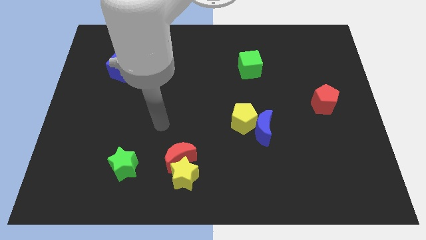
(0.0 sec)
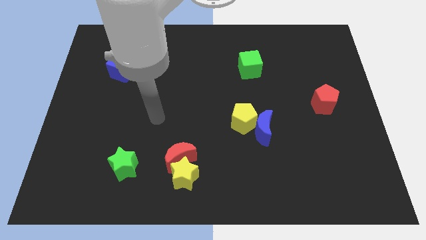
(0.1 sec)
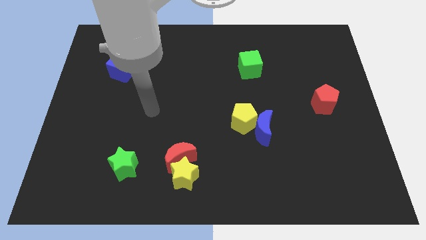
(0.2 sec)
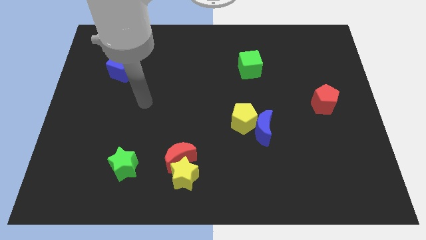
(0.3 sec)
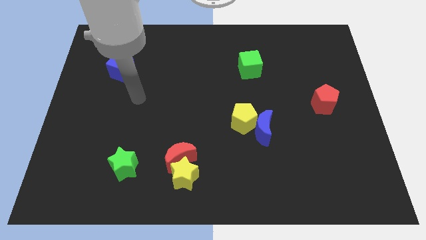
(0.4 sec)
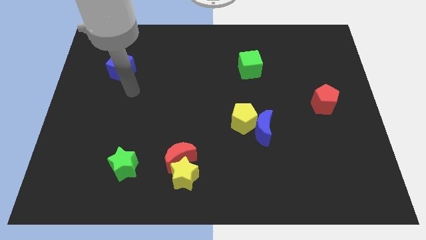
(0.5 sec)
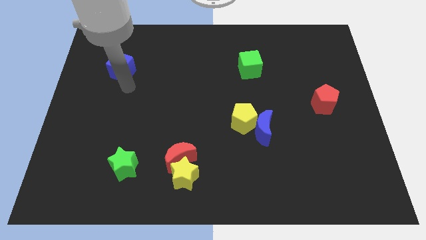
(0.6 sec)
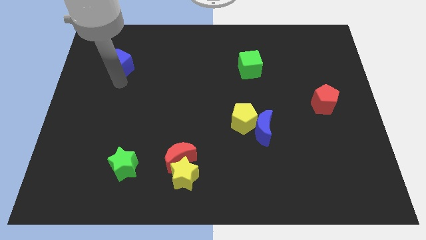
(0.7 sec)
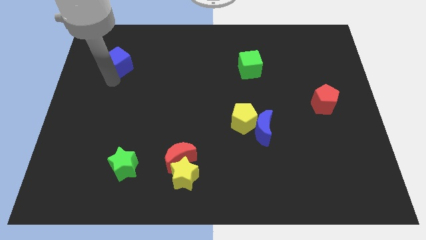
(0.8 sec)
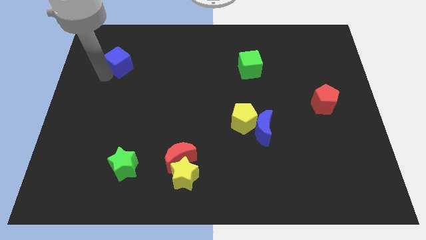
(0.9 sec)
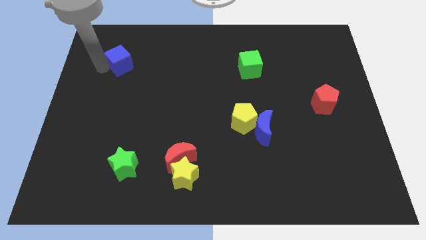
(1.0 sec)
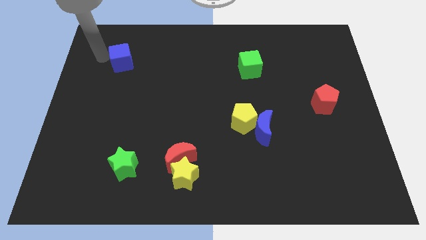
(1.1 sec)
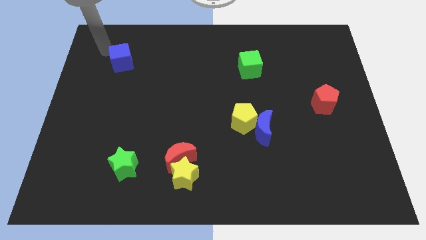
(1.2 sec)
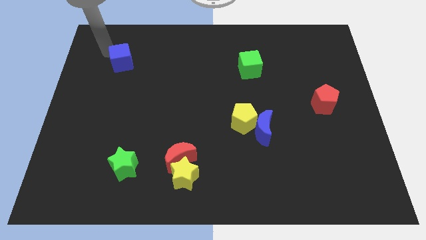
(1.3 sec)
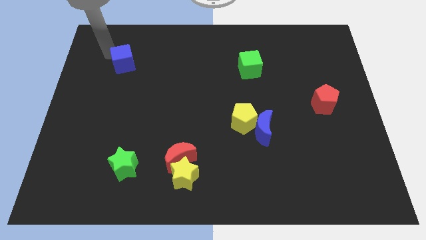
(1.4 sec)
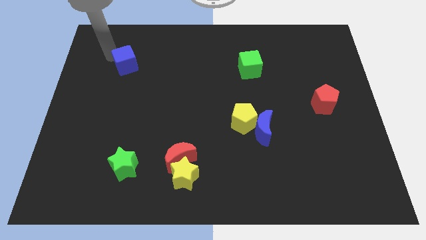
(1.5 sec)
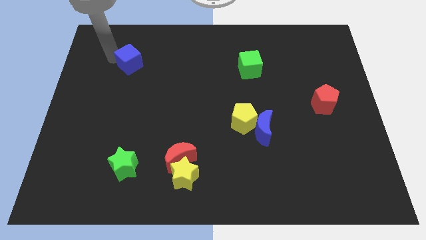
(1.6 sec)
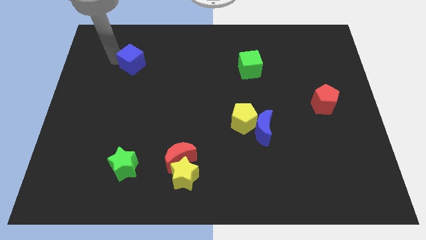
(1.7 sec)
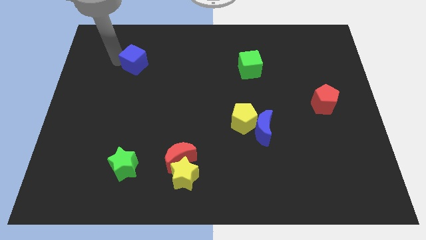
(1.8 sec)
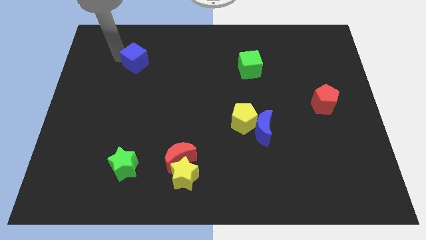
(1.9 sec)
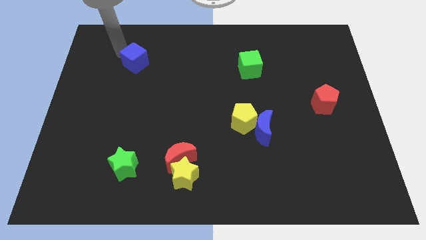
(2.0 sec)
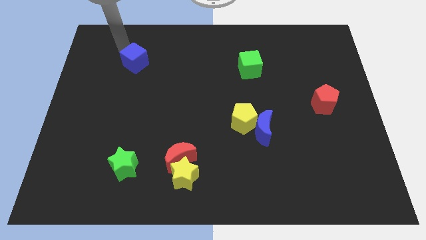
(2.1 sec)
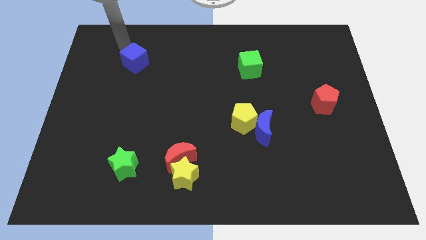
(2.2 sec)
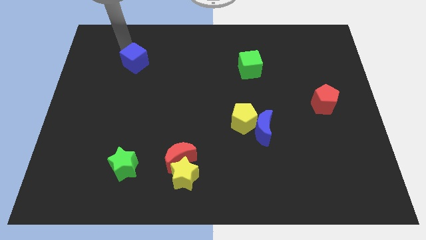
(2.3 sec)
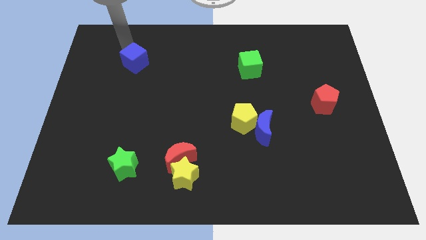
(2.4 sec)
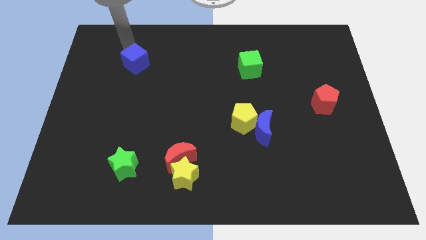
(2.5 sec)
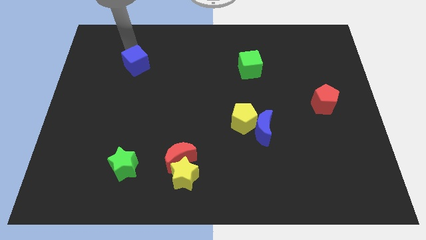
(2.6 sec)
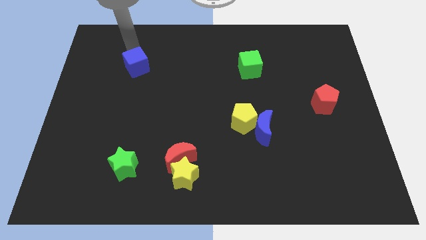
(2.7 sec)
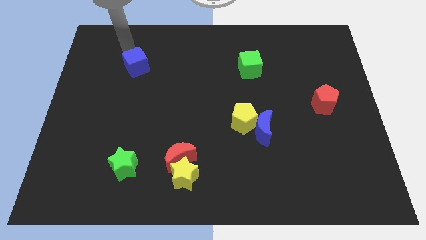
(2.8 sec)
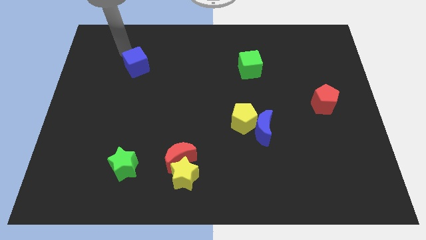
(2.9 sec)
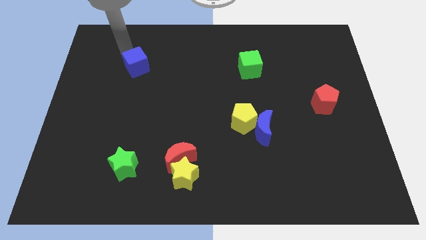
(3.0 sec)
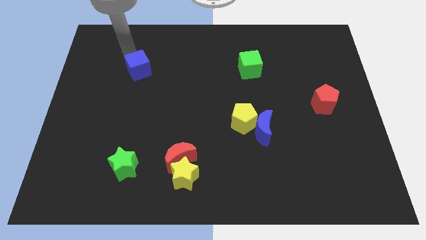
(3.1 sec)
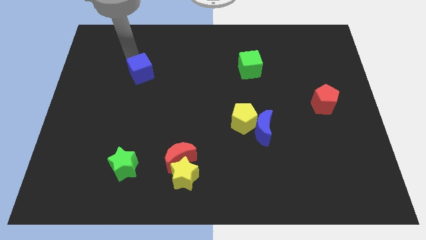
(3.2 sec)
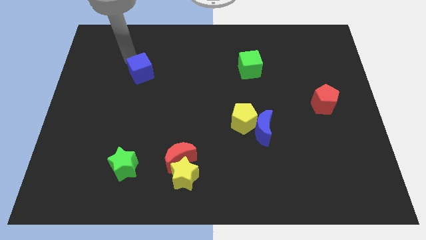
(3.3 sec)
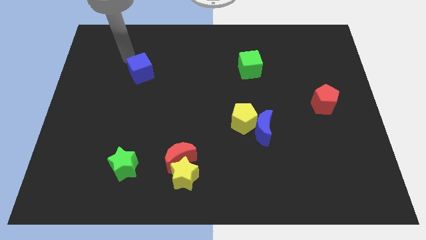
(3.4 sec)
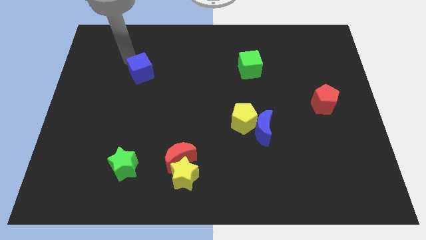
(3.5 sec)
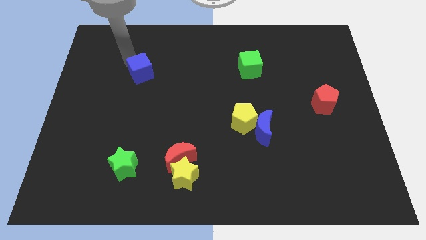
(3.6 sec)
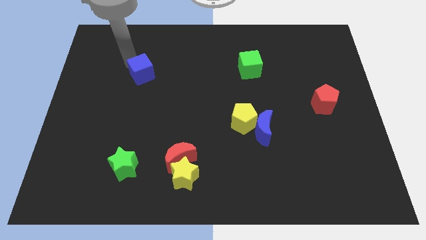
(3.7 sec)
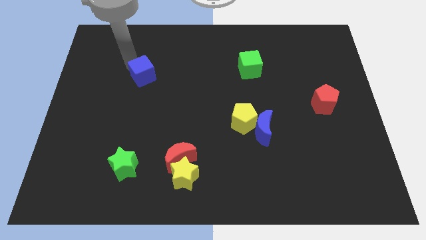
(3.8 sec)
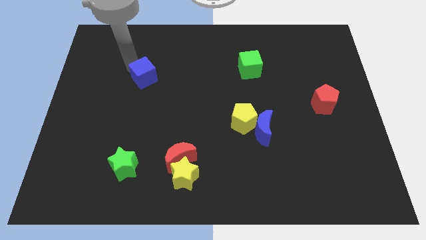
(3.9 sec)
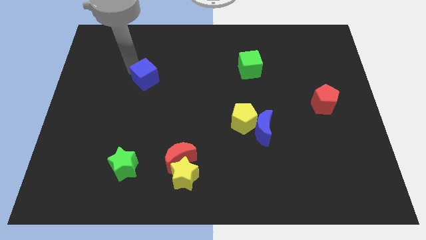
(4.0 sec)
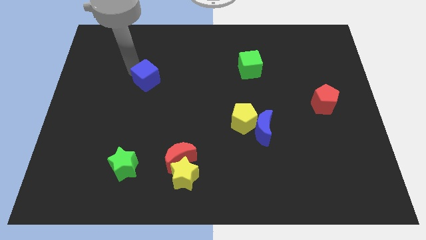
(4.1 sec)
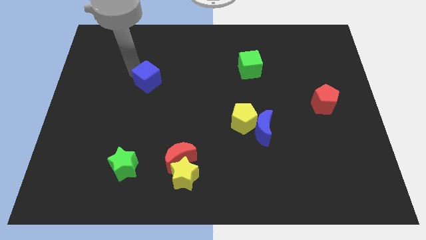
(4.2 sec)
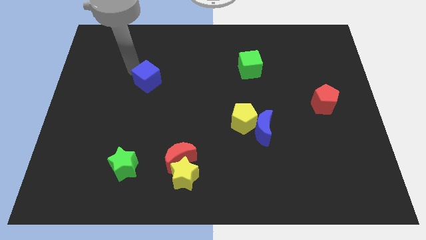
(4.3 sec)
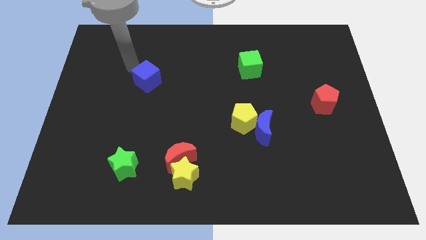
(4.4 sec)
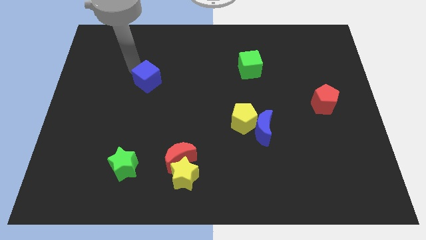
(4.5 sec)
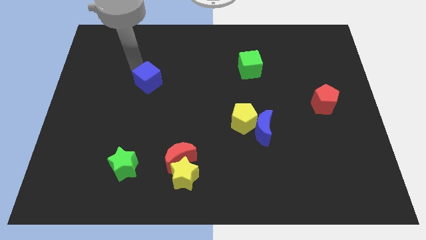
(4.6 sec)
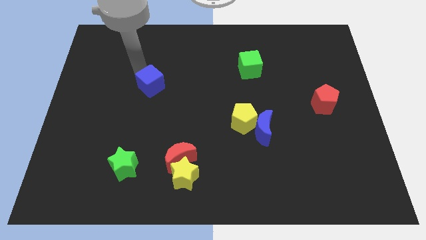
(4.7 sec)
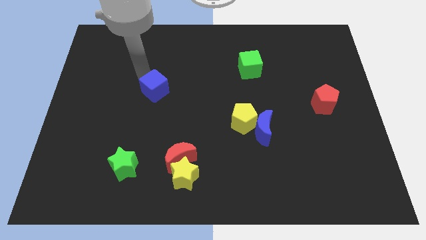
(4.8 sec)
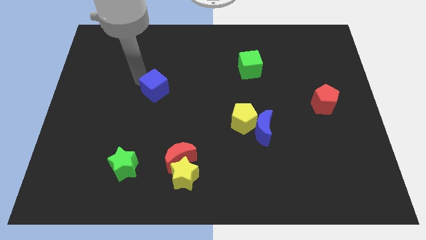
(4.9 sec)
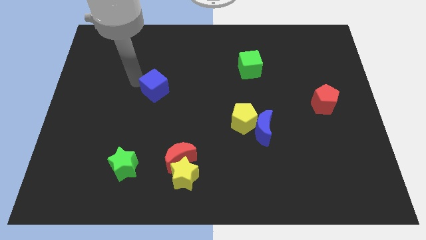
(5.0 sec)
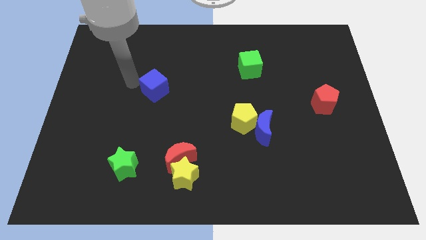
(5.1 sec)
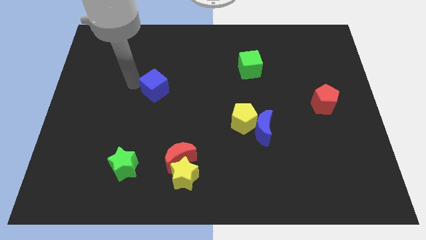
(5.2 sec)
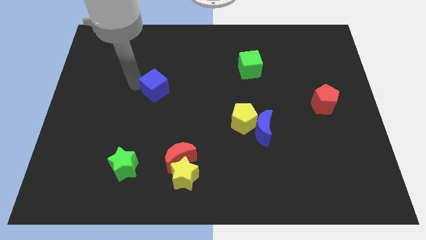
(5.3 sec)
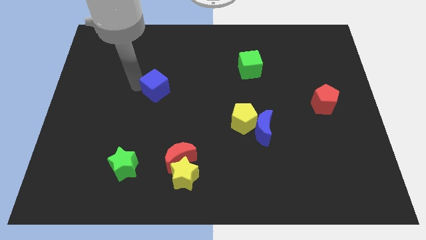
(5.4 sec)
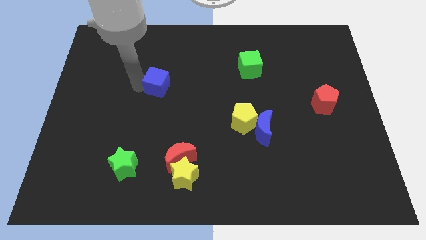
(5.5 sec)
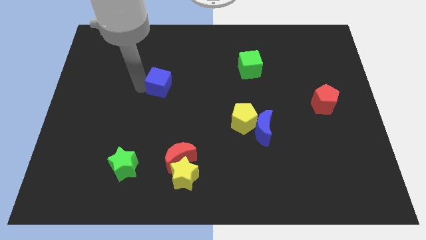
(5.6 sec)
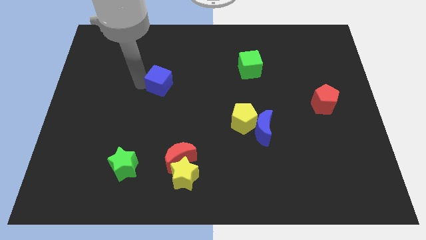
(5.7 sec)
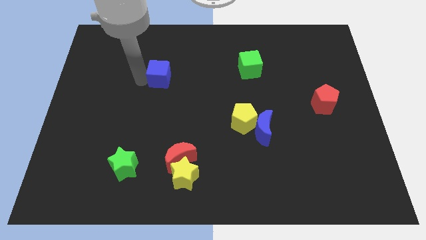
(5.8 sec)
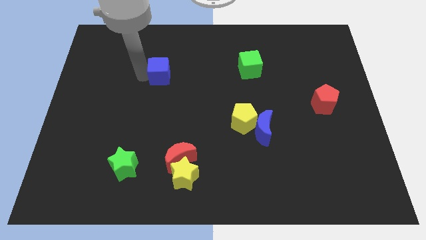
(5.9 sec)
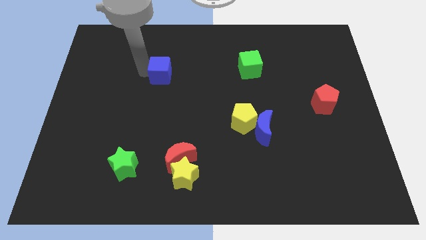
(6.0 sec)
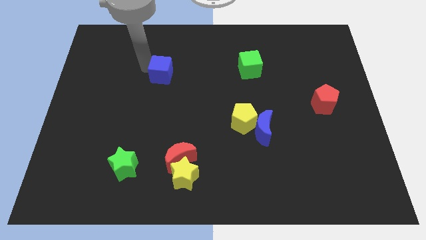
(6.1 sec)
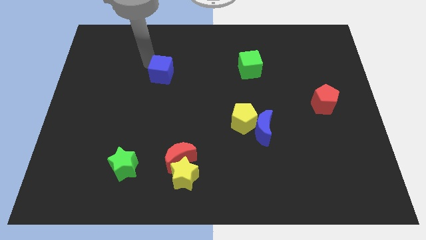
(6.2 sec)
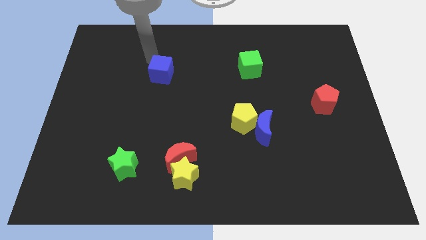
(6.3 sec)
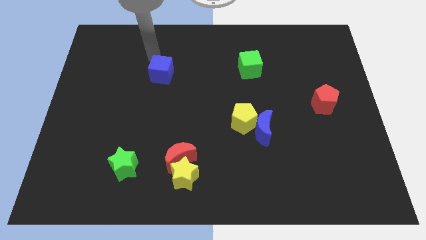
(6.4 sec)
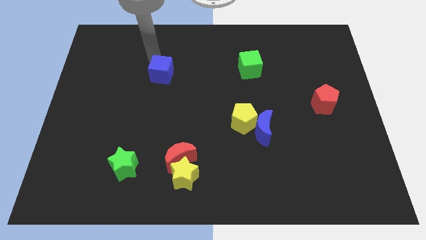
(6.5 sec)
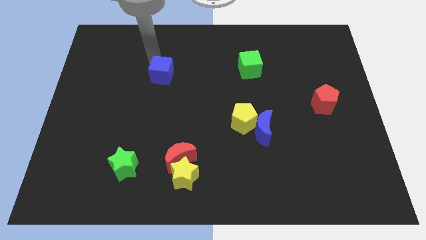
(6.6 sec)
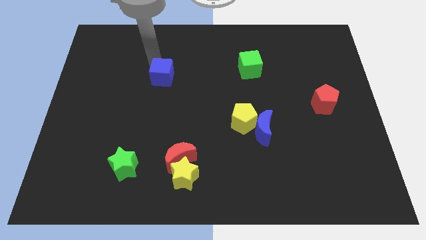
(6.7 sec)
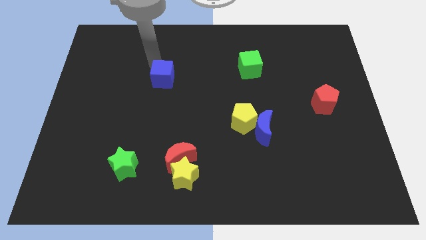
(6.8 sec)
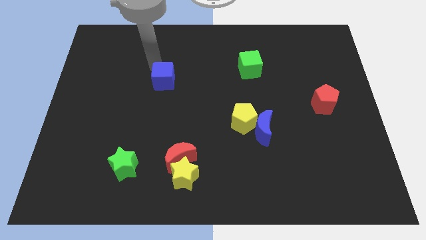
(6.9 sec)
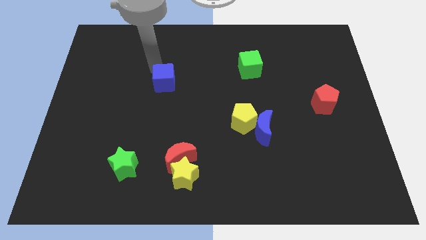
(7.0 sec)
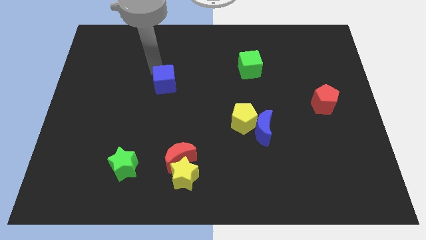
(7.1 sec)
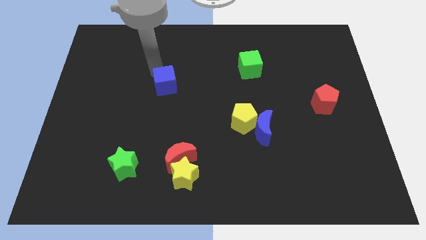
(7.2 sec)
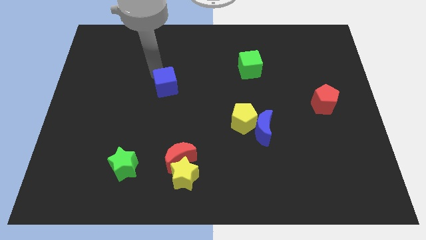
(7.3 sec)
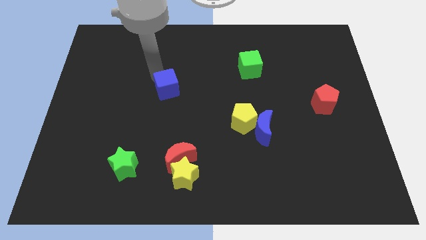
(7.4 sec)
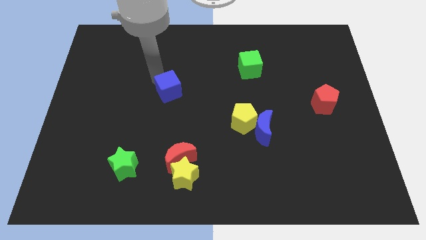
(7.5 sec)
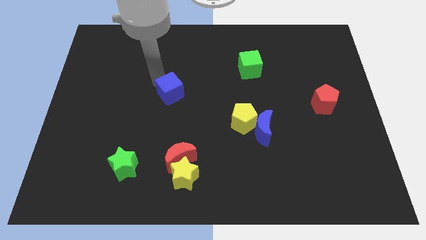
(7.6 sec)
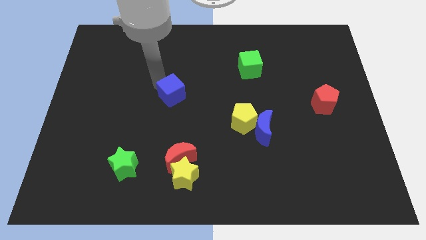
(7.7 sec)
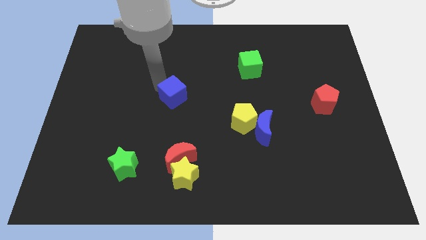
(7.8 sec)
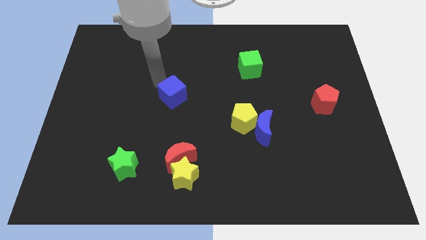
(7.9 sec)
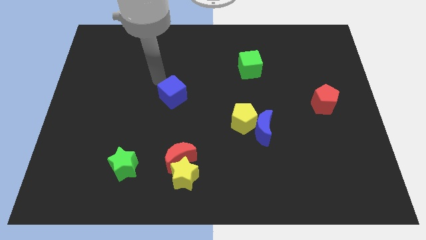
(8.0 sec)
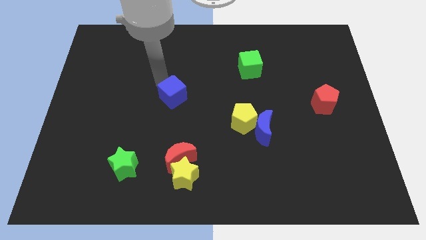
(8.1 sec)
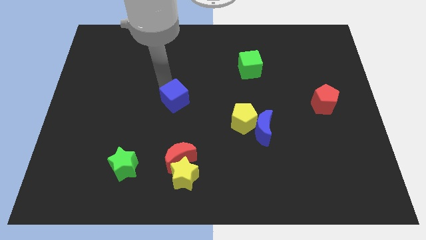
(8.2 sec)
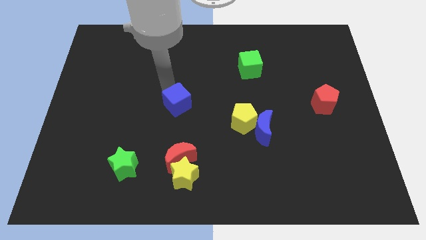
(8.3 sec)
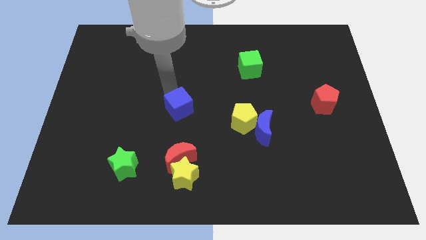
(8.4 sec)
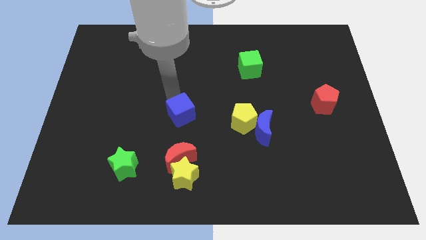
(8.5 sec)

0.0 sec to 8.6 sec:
slide the blue cube just left of the yellow pentagon
